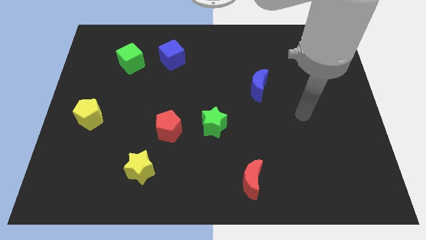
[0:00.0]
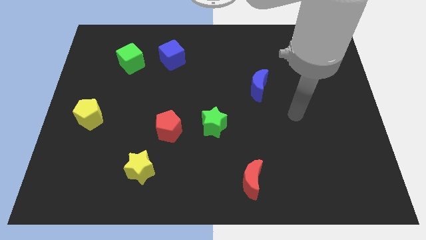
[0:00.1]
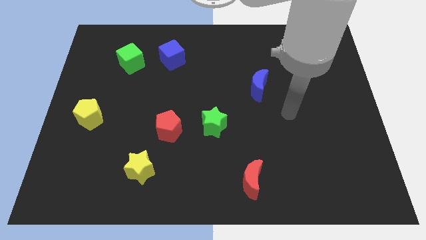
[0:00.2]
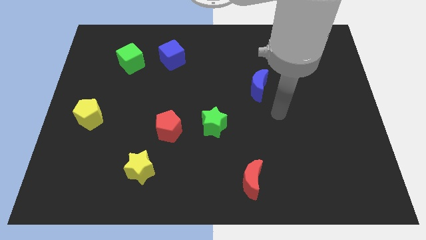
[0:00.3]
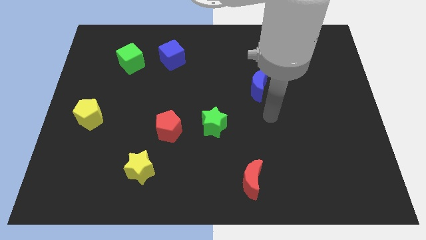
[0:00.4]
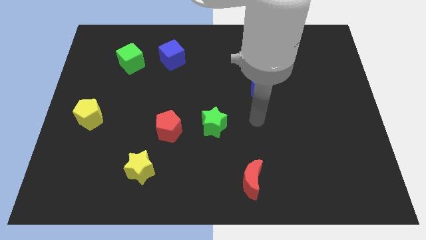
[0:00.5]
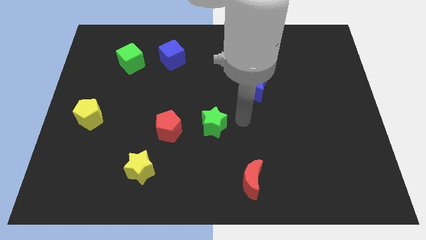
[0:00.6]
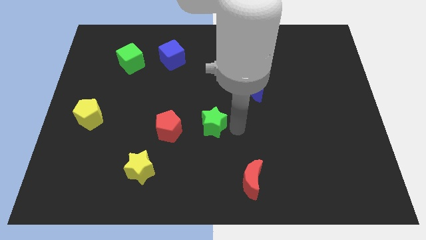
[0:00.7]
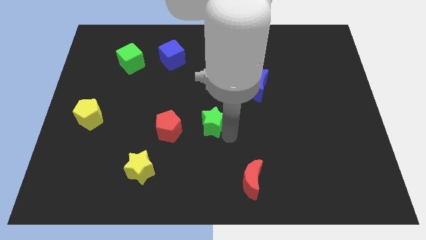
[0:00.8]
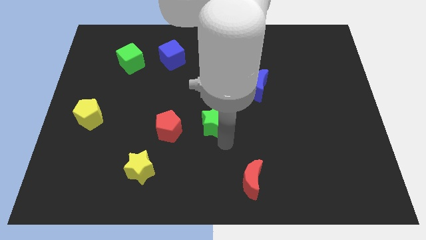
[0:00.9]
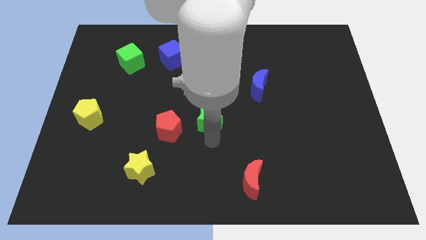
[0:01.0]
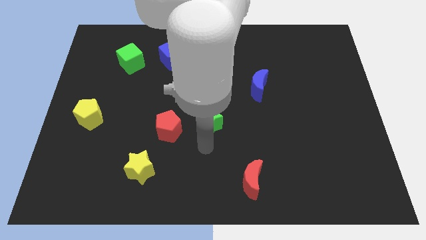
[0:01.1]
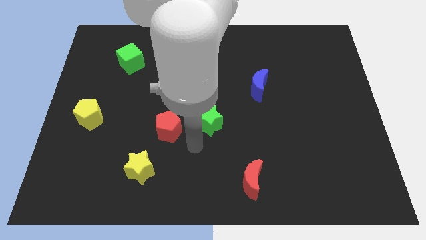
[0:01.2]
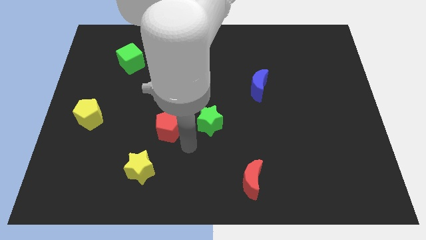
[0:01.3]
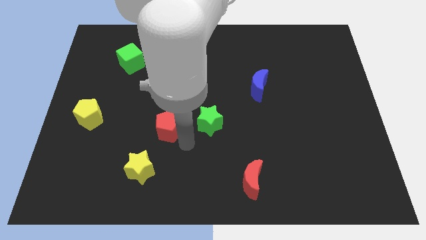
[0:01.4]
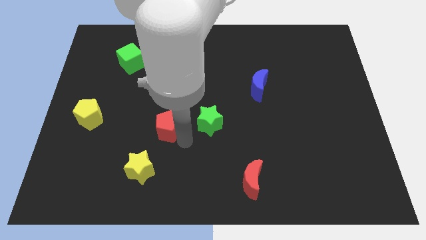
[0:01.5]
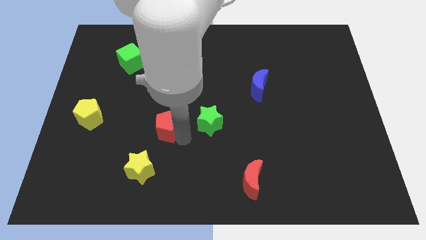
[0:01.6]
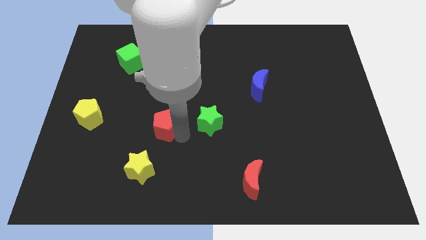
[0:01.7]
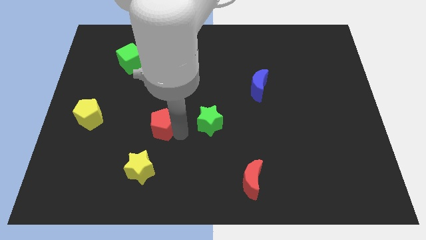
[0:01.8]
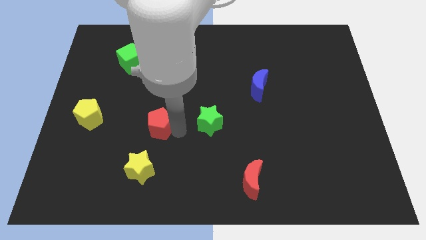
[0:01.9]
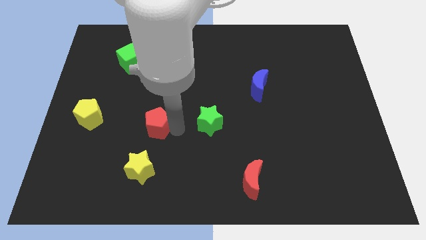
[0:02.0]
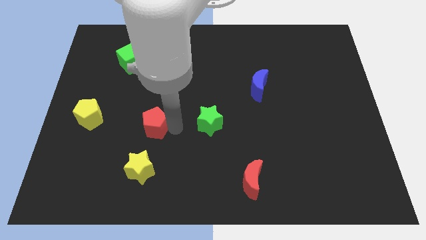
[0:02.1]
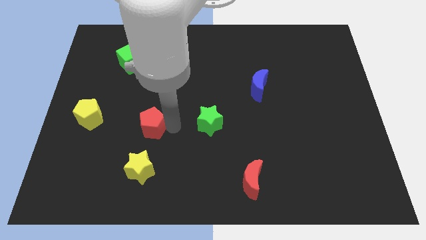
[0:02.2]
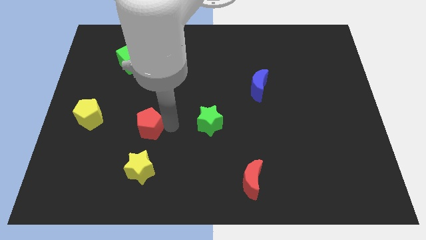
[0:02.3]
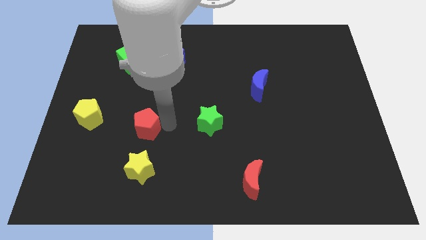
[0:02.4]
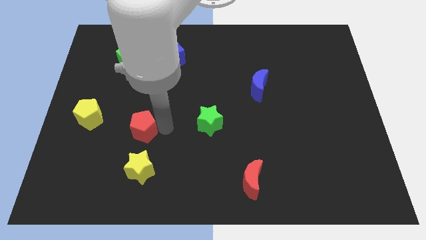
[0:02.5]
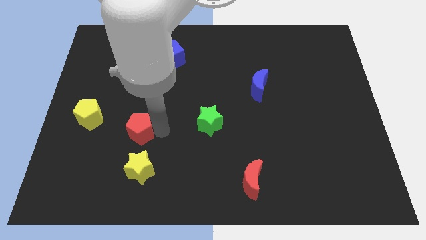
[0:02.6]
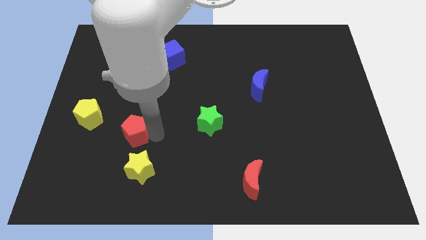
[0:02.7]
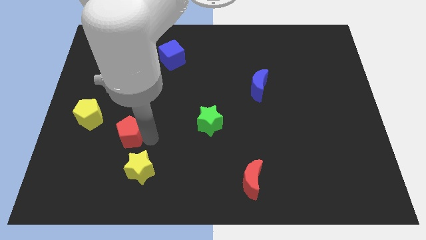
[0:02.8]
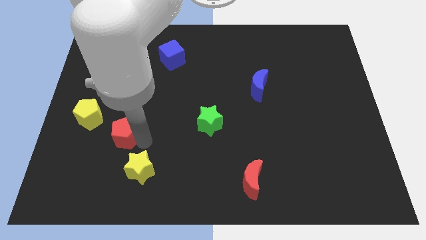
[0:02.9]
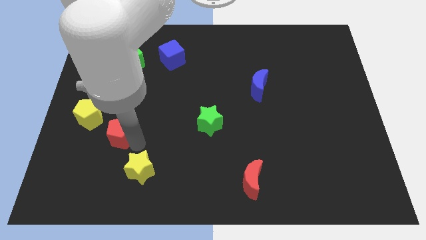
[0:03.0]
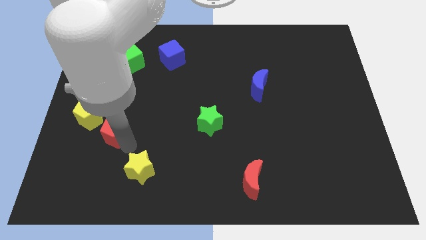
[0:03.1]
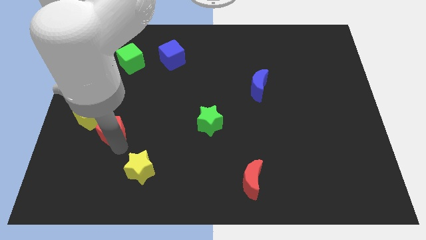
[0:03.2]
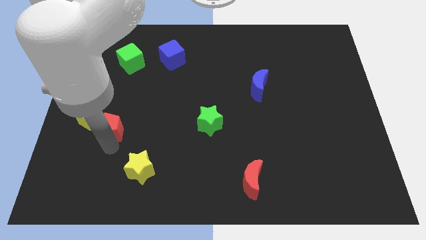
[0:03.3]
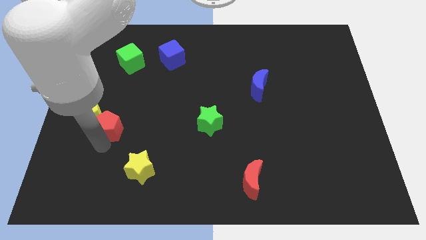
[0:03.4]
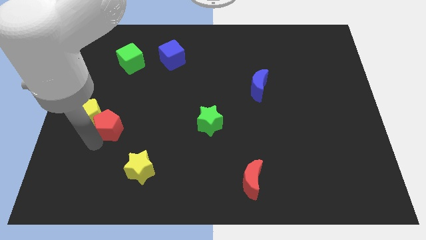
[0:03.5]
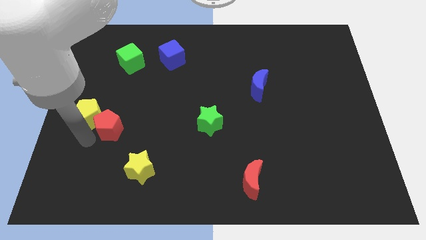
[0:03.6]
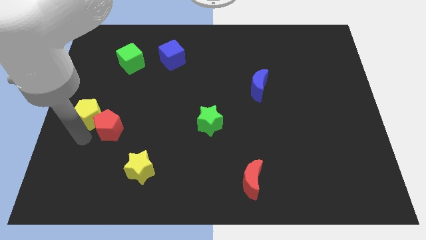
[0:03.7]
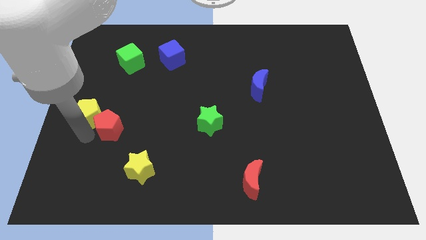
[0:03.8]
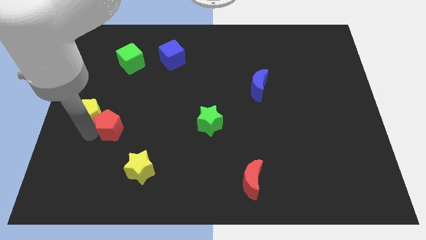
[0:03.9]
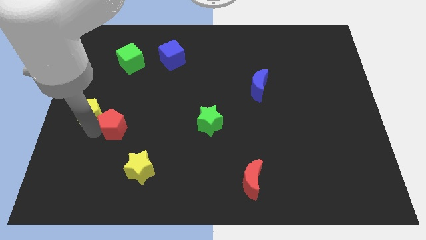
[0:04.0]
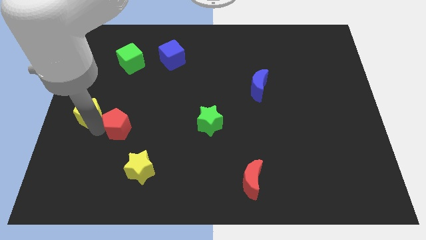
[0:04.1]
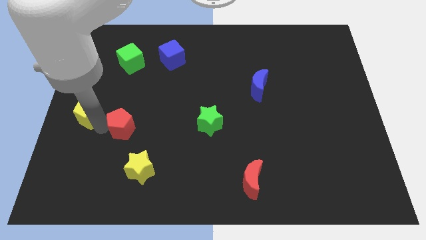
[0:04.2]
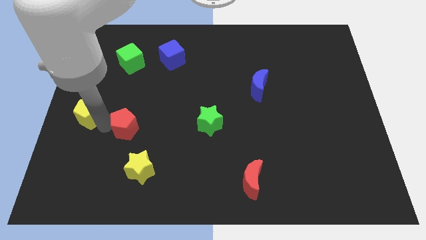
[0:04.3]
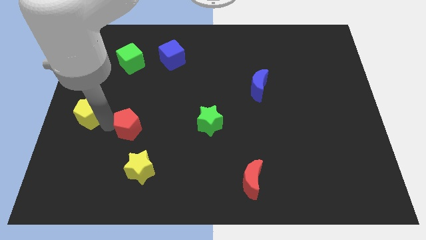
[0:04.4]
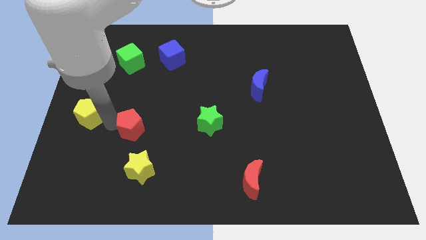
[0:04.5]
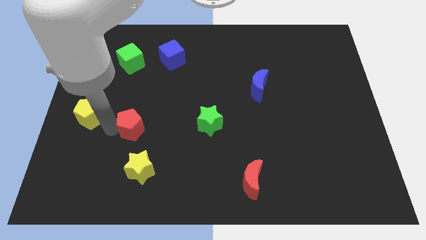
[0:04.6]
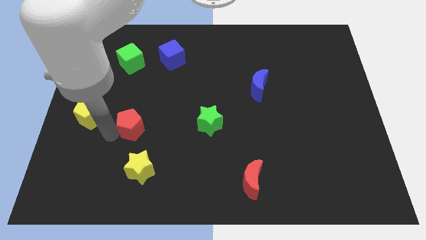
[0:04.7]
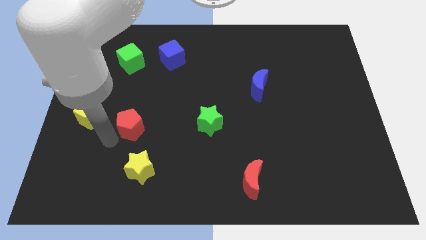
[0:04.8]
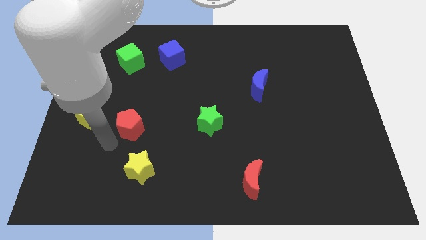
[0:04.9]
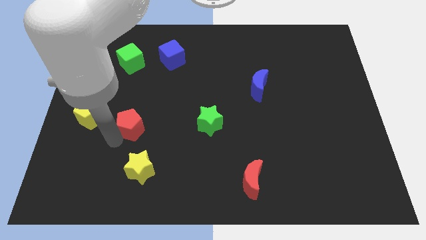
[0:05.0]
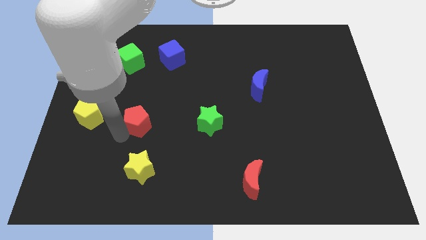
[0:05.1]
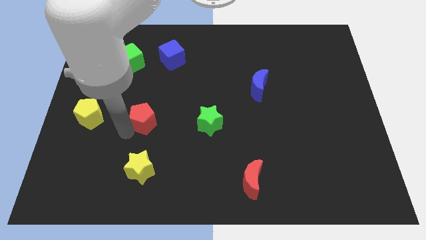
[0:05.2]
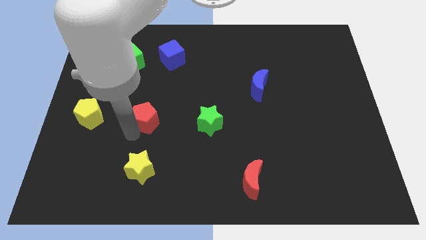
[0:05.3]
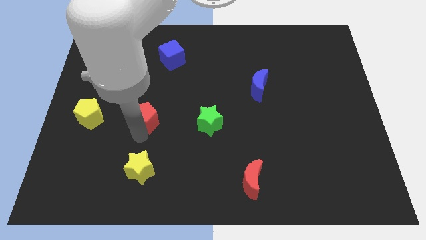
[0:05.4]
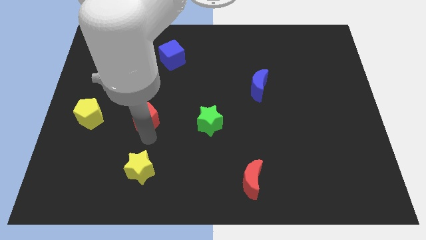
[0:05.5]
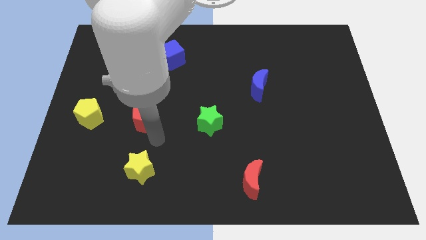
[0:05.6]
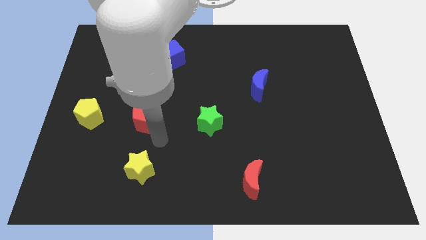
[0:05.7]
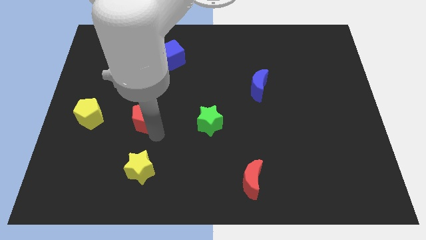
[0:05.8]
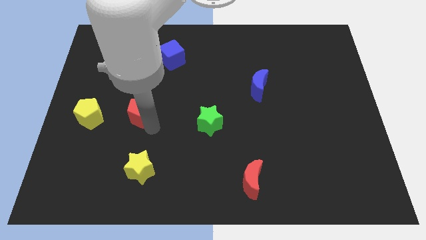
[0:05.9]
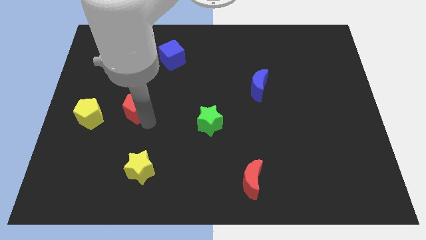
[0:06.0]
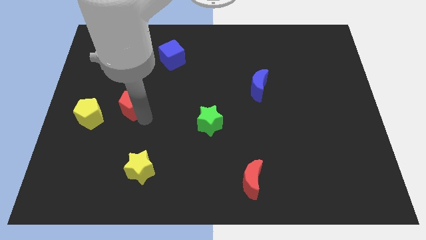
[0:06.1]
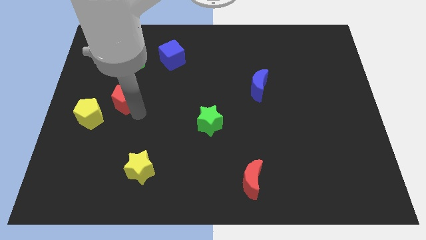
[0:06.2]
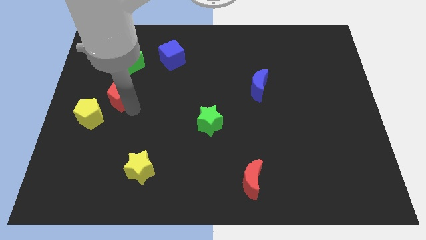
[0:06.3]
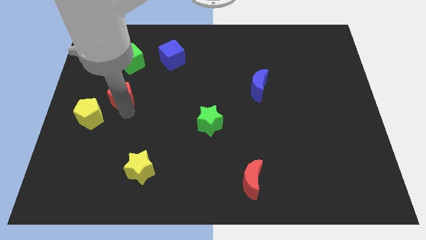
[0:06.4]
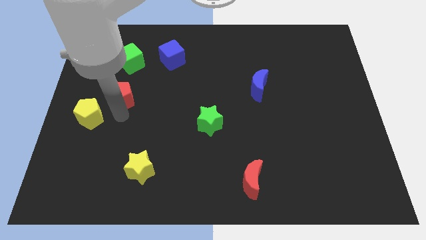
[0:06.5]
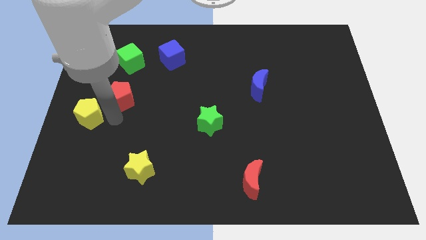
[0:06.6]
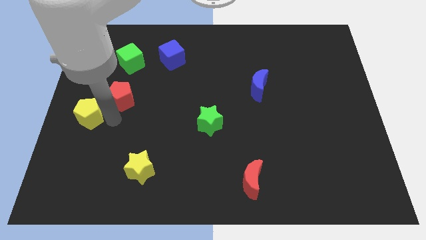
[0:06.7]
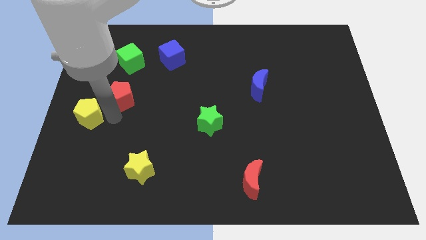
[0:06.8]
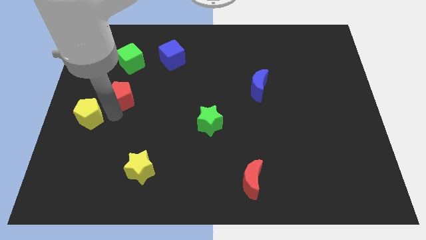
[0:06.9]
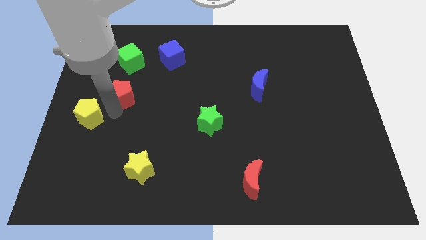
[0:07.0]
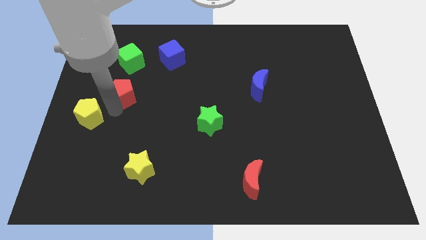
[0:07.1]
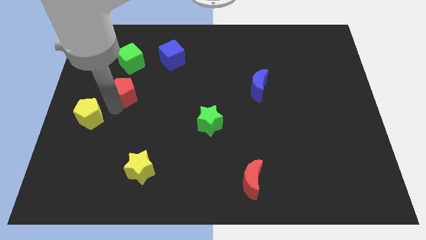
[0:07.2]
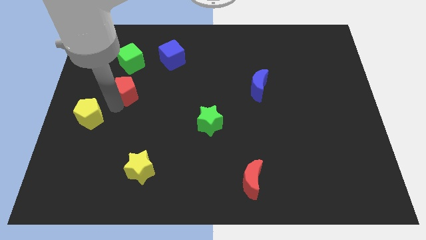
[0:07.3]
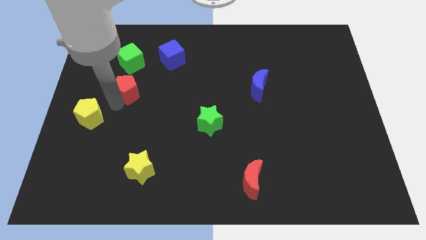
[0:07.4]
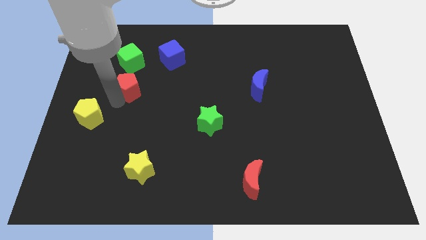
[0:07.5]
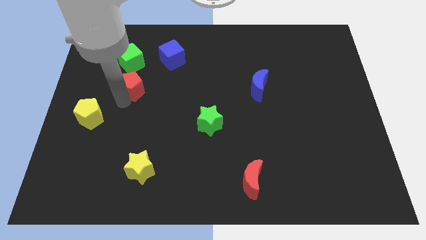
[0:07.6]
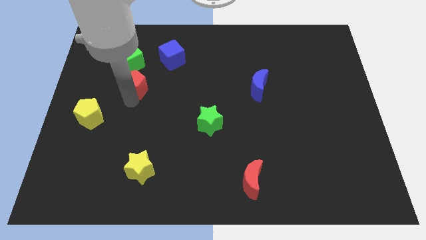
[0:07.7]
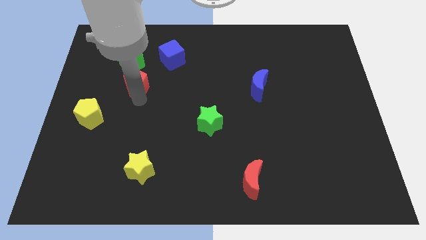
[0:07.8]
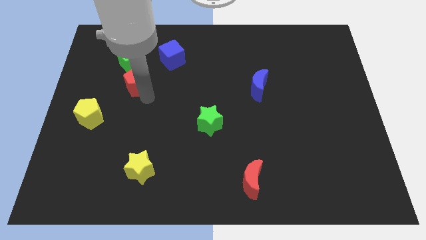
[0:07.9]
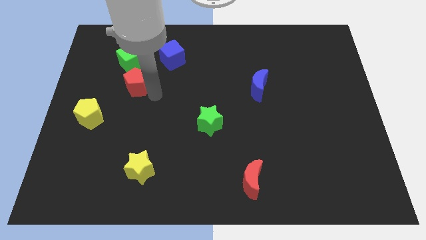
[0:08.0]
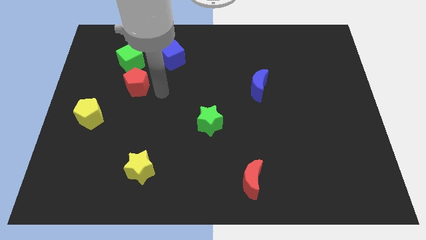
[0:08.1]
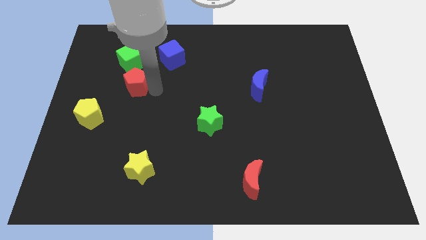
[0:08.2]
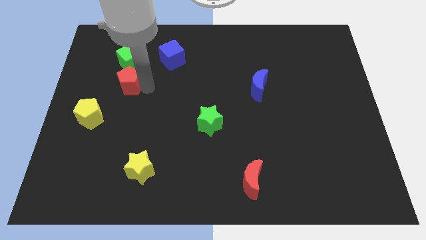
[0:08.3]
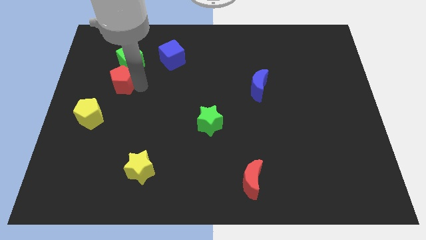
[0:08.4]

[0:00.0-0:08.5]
put the red pentagon to the bottom left of the green cube
